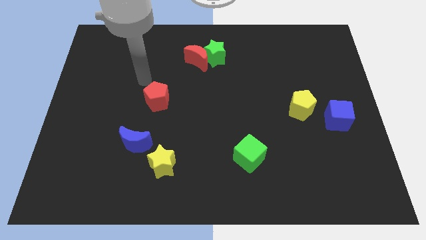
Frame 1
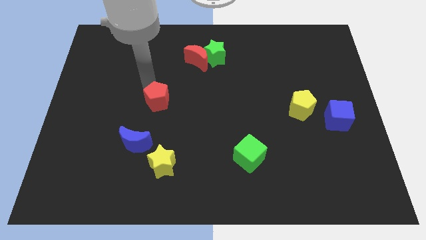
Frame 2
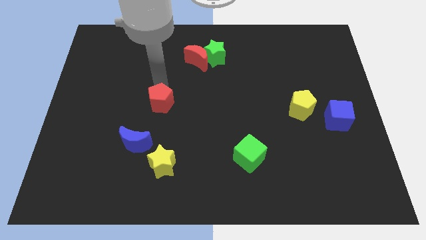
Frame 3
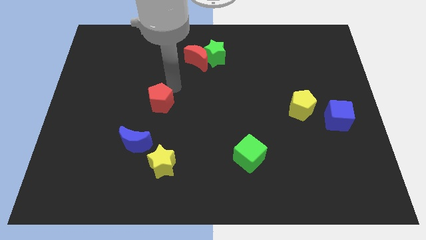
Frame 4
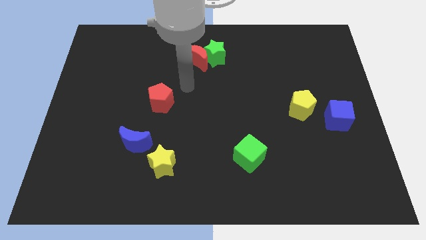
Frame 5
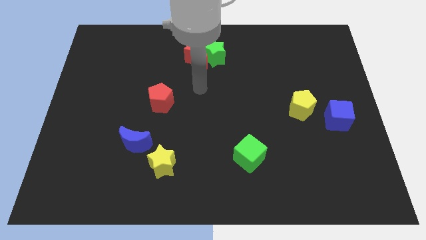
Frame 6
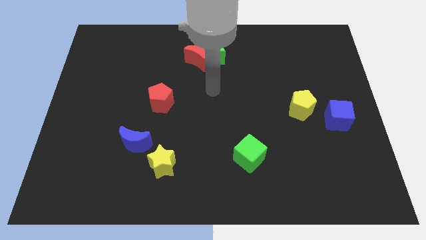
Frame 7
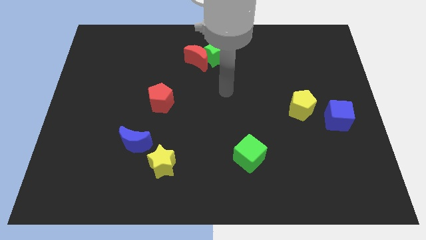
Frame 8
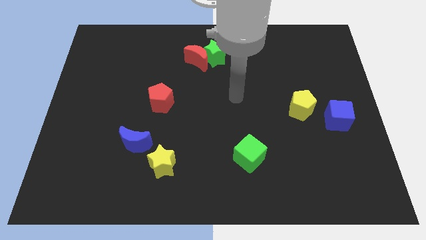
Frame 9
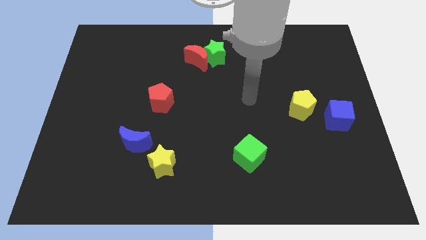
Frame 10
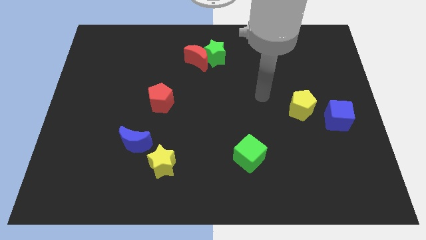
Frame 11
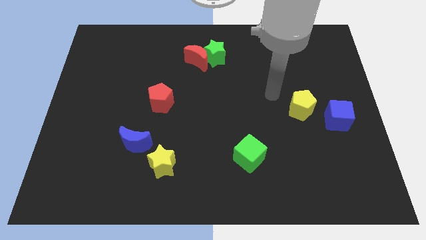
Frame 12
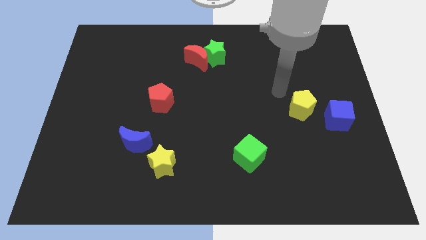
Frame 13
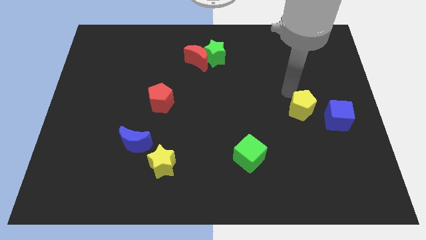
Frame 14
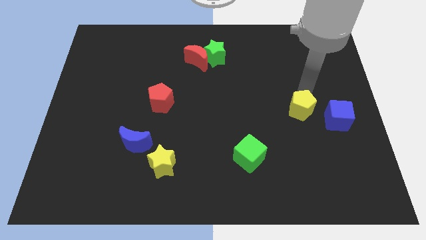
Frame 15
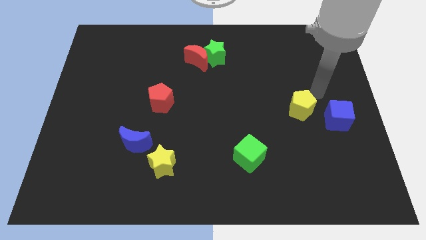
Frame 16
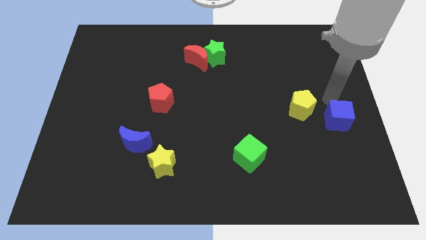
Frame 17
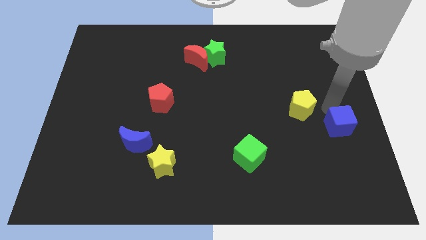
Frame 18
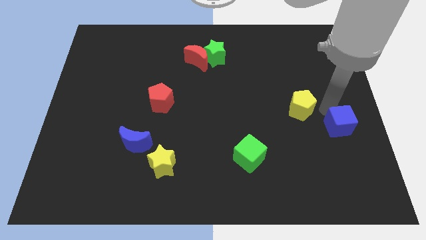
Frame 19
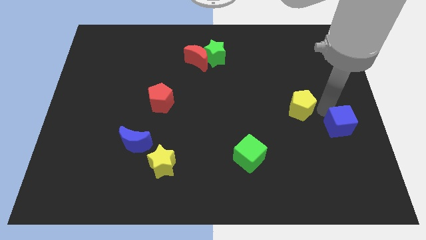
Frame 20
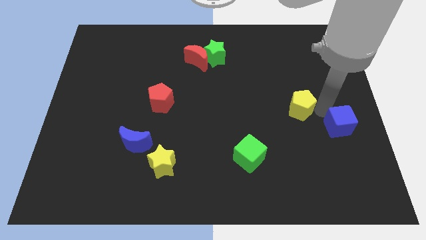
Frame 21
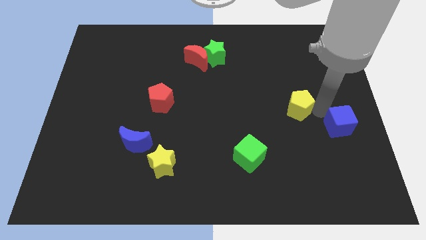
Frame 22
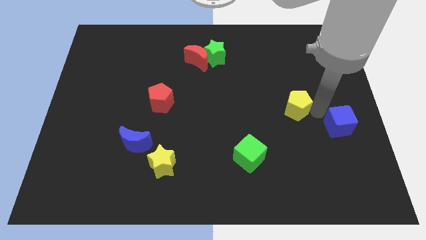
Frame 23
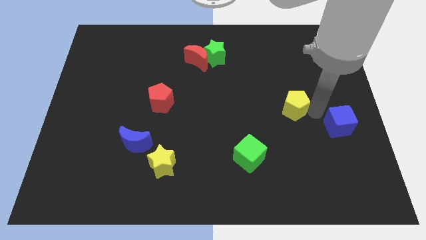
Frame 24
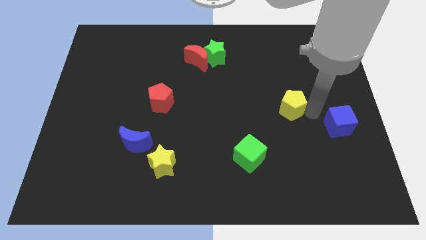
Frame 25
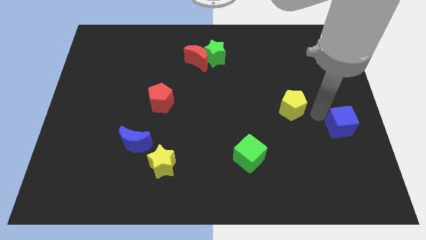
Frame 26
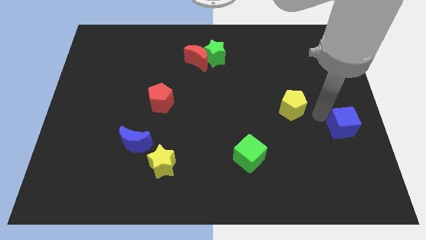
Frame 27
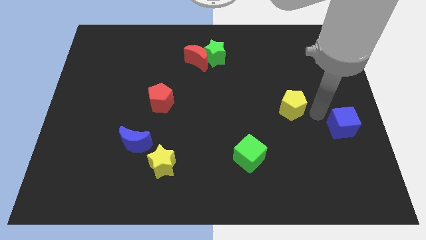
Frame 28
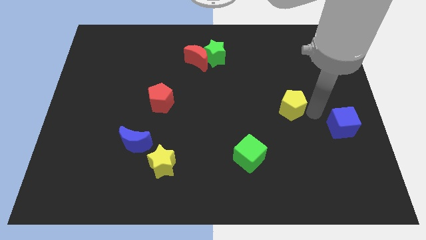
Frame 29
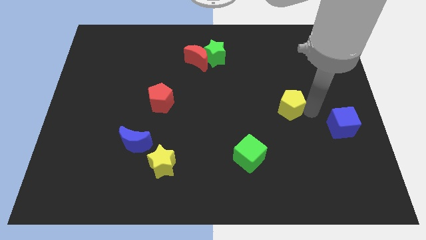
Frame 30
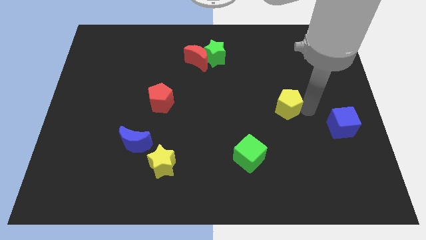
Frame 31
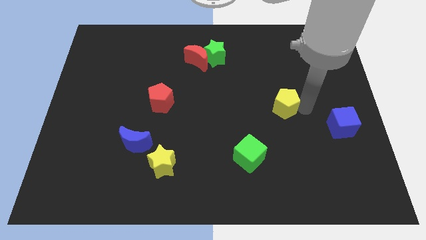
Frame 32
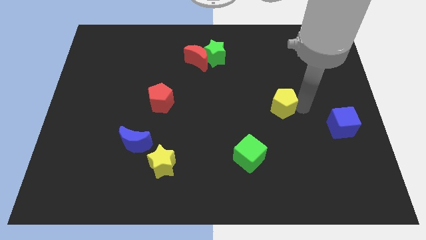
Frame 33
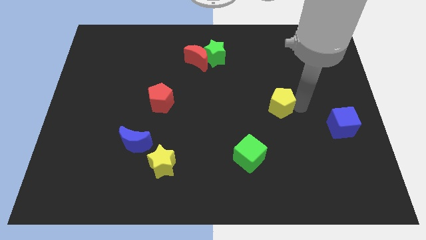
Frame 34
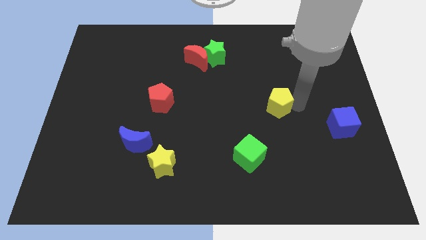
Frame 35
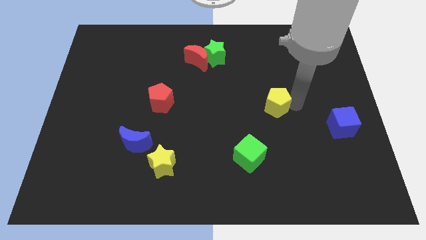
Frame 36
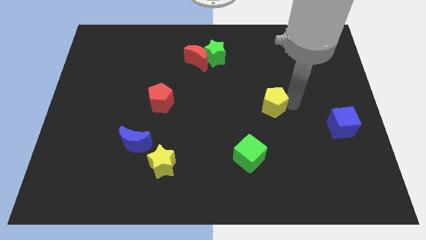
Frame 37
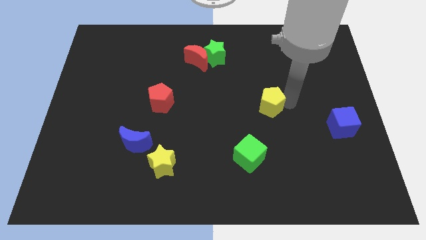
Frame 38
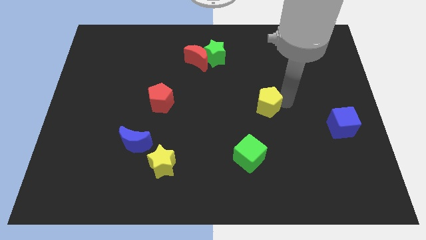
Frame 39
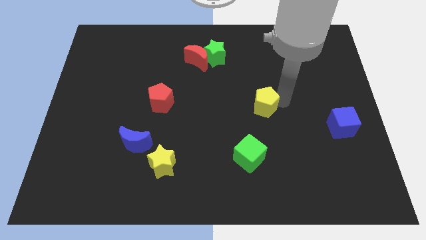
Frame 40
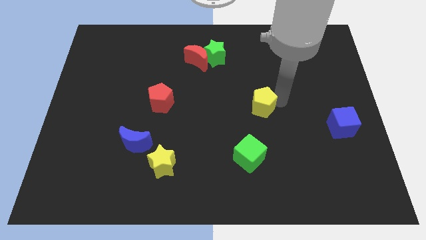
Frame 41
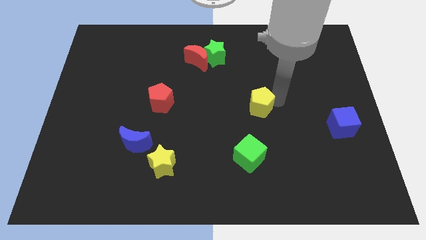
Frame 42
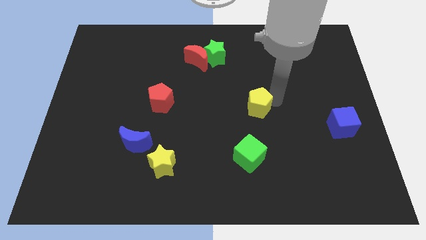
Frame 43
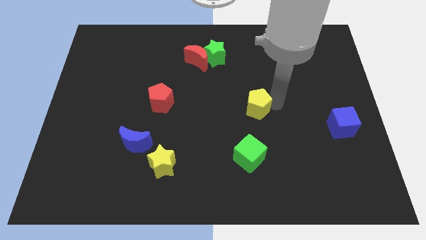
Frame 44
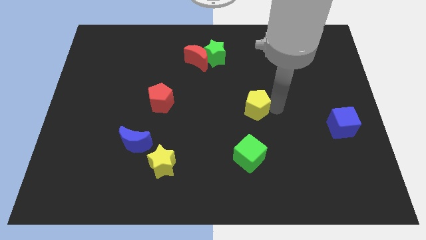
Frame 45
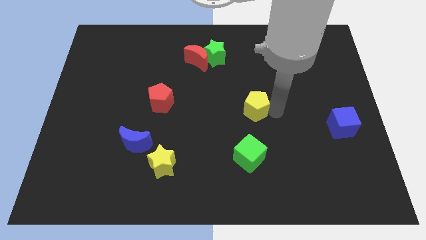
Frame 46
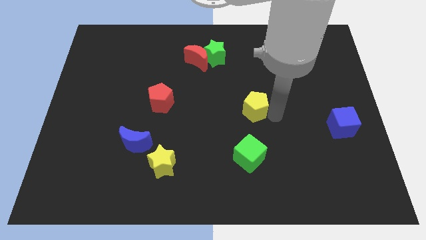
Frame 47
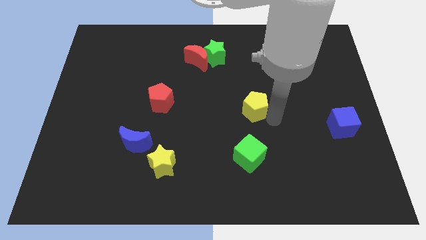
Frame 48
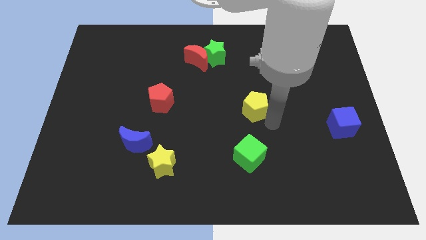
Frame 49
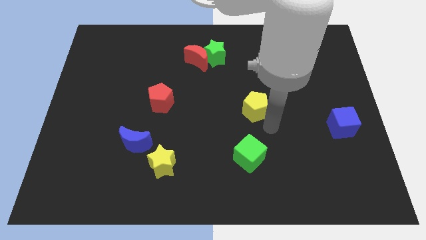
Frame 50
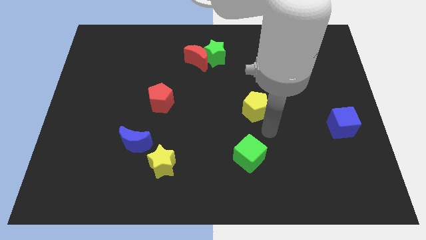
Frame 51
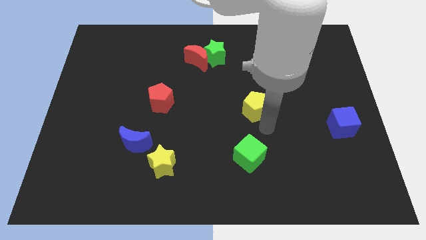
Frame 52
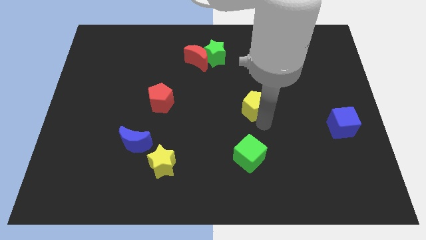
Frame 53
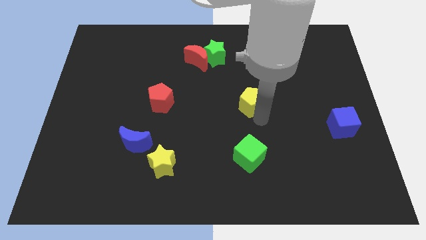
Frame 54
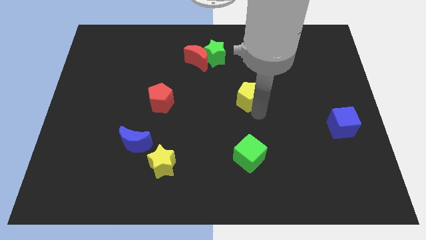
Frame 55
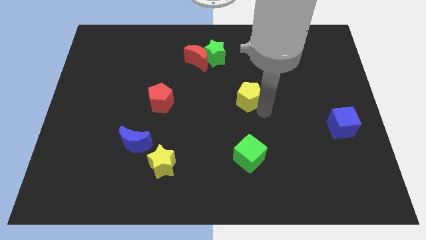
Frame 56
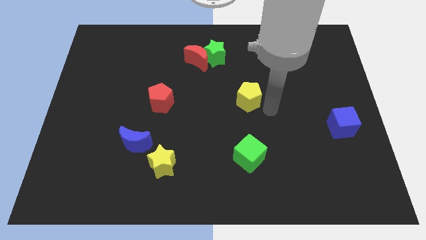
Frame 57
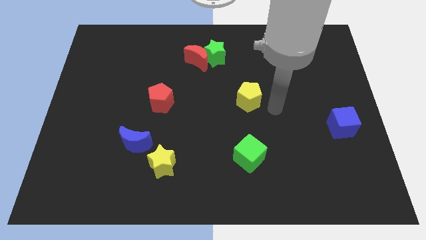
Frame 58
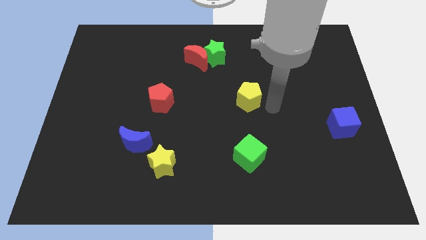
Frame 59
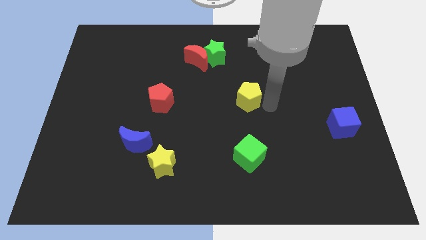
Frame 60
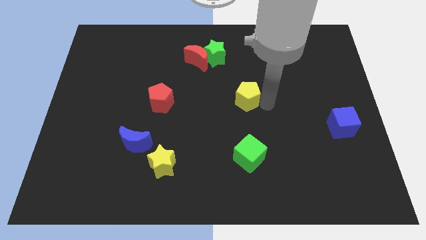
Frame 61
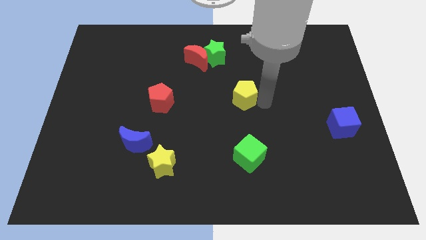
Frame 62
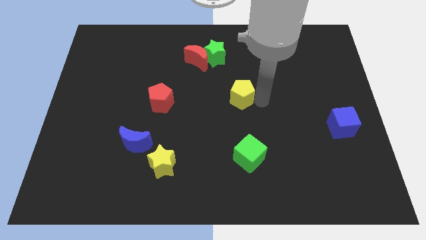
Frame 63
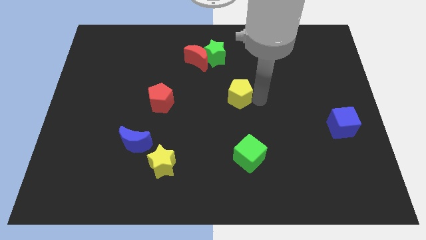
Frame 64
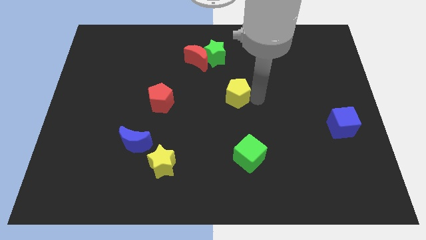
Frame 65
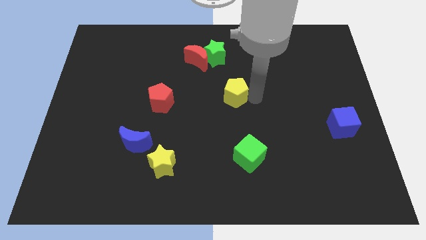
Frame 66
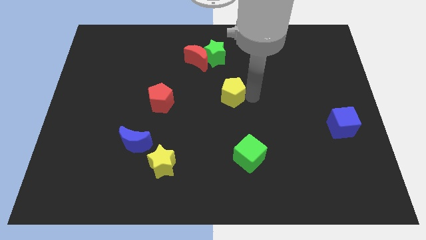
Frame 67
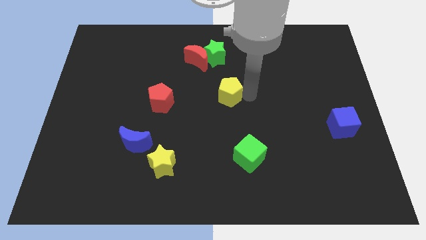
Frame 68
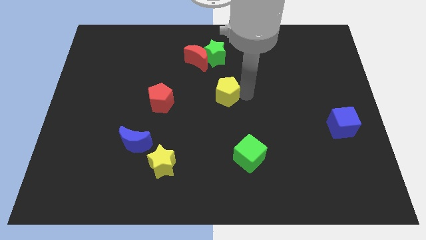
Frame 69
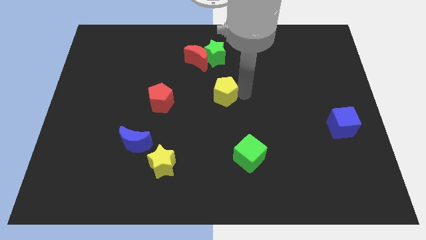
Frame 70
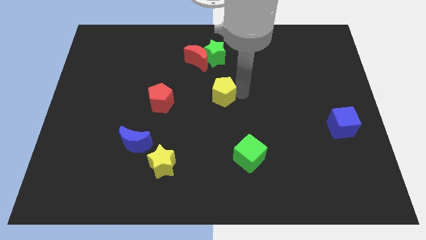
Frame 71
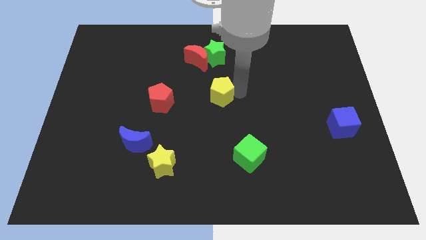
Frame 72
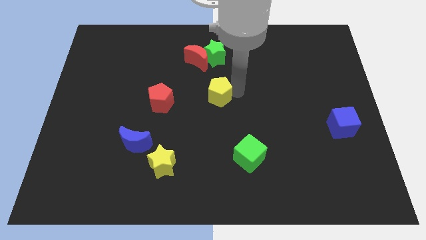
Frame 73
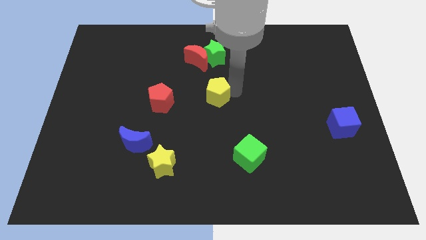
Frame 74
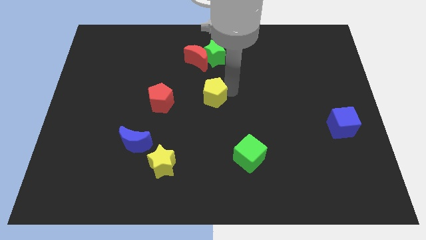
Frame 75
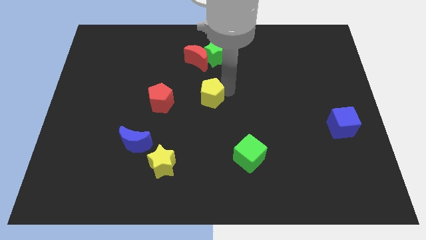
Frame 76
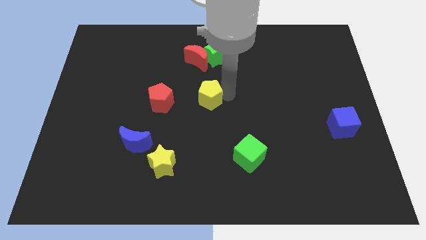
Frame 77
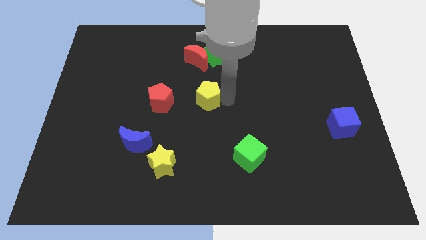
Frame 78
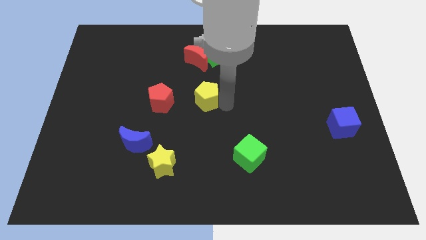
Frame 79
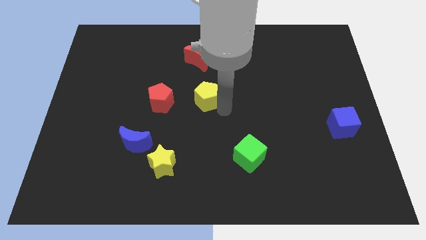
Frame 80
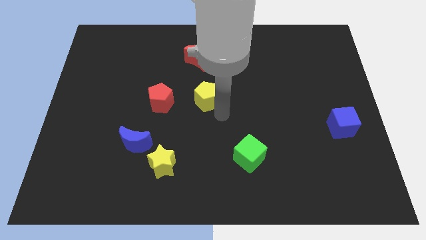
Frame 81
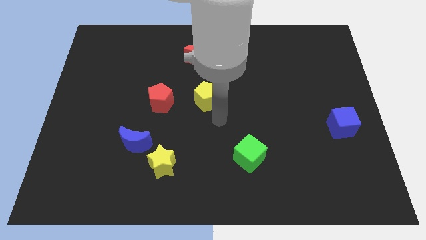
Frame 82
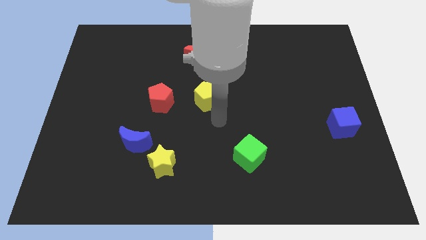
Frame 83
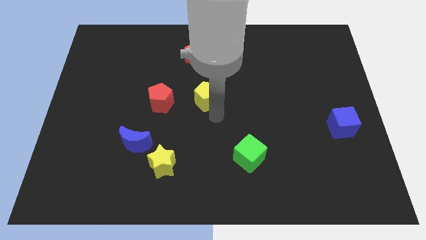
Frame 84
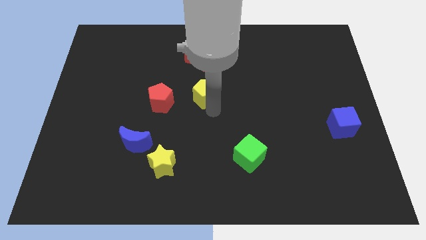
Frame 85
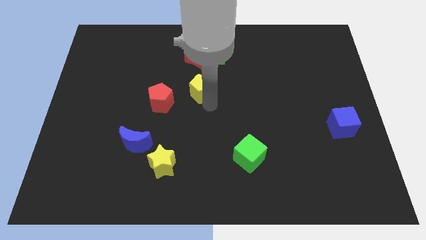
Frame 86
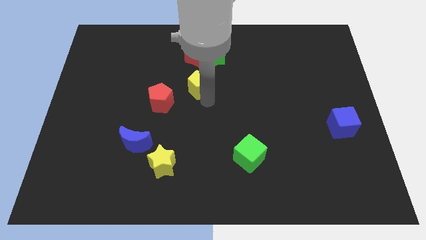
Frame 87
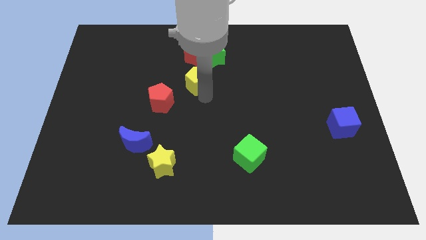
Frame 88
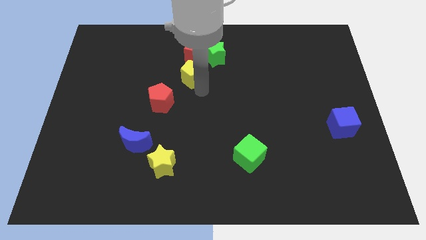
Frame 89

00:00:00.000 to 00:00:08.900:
move the yellow pentagon next to the red moon
